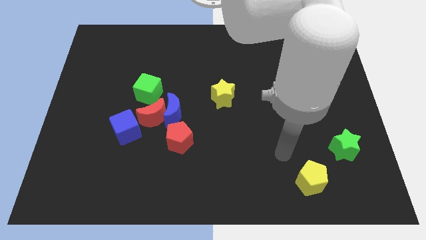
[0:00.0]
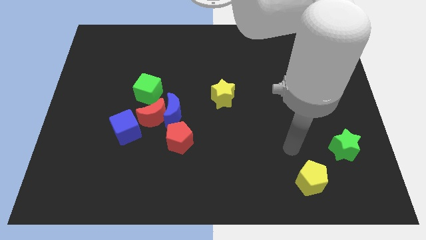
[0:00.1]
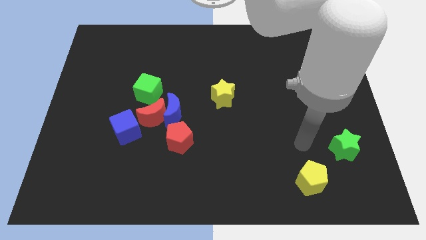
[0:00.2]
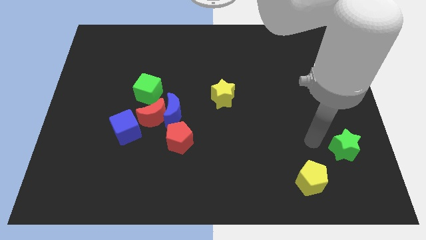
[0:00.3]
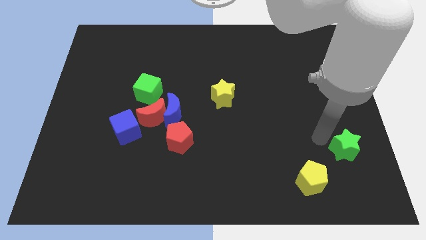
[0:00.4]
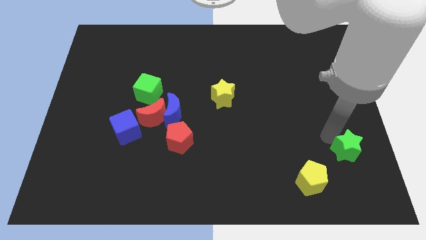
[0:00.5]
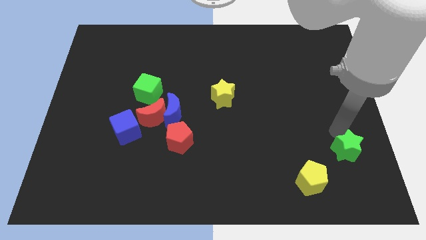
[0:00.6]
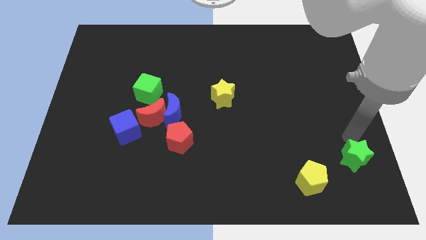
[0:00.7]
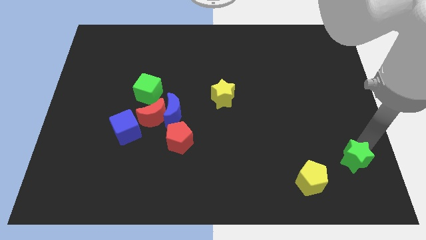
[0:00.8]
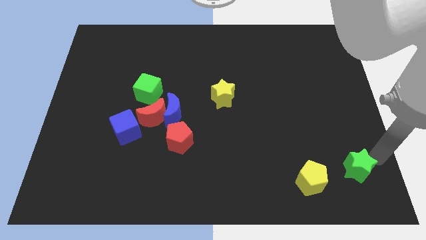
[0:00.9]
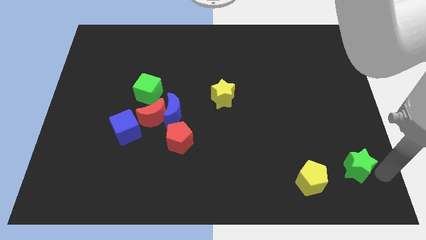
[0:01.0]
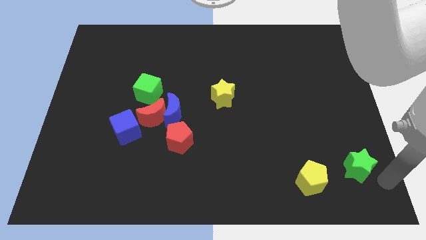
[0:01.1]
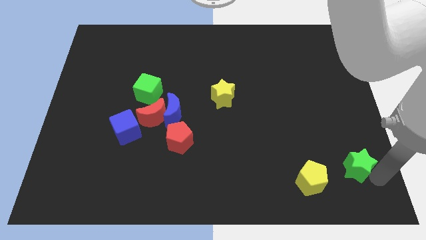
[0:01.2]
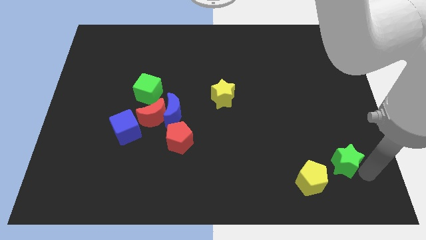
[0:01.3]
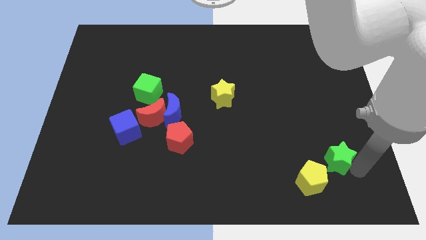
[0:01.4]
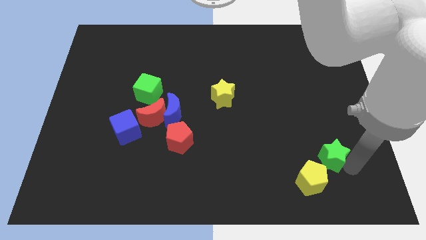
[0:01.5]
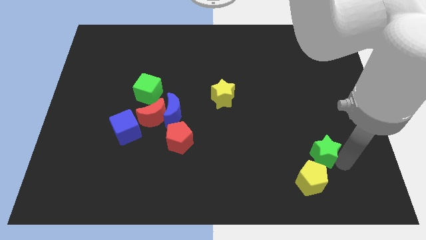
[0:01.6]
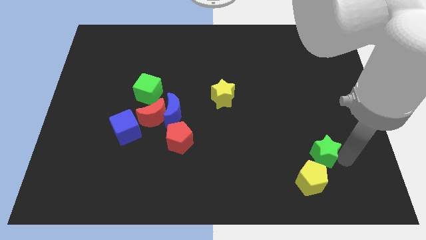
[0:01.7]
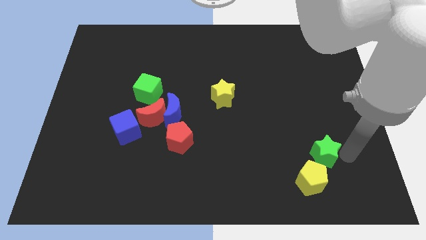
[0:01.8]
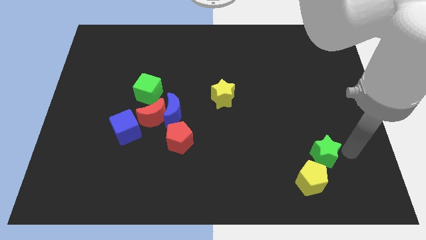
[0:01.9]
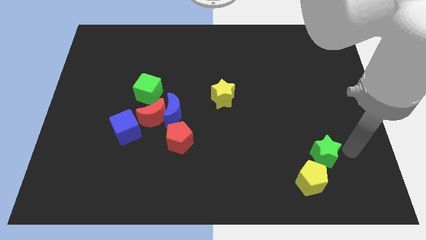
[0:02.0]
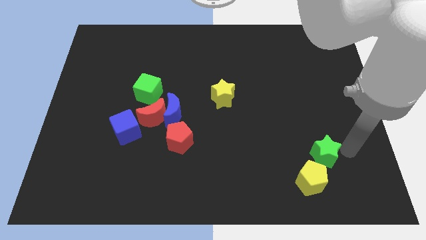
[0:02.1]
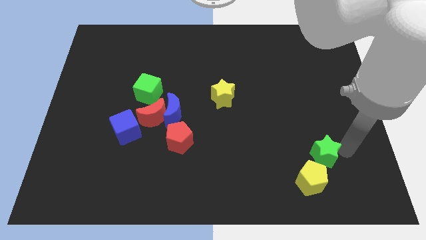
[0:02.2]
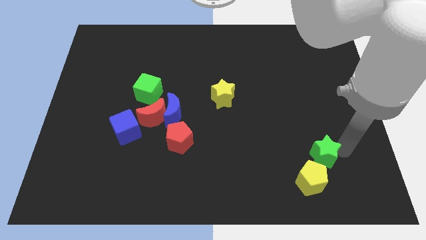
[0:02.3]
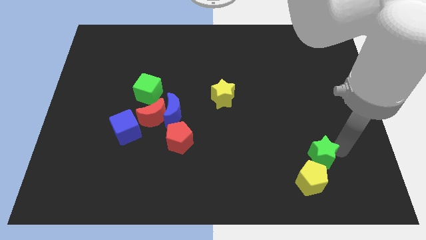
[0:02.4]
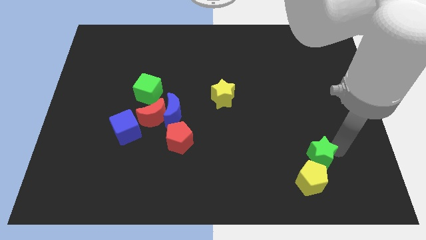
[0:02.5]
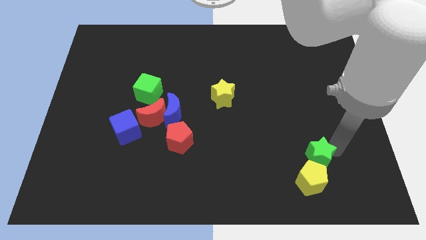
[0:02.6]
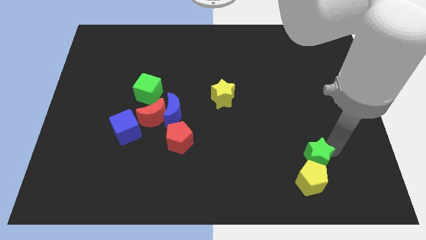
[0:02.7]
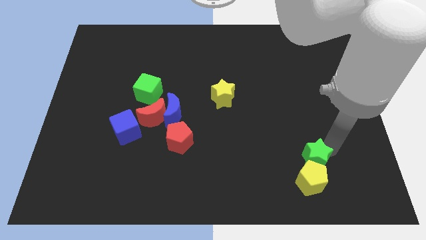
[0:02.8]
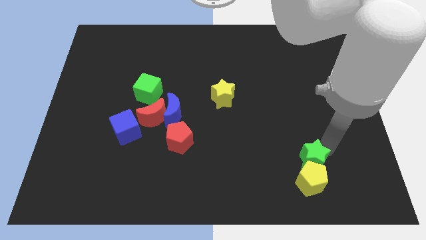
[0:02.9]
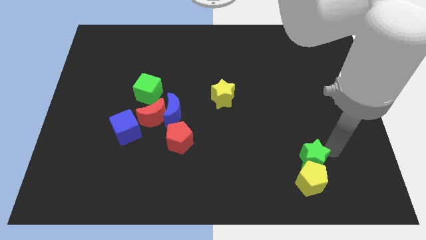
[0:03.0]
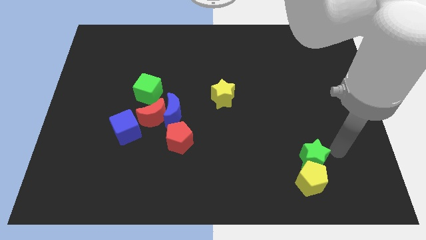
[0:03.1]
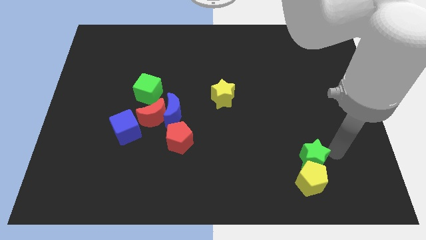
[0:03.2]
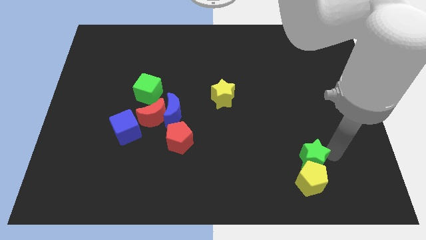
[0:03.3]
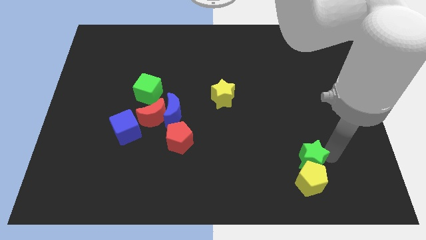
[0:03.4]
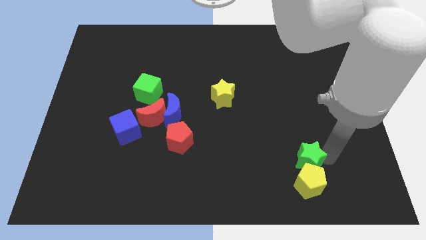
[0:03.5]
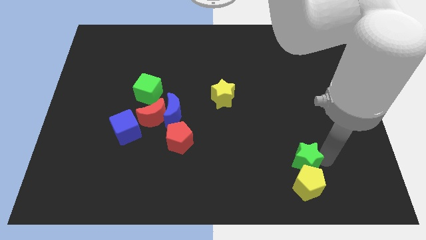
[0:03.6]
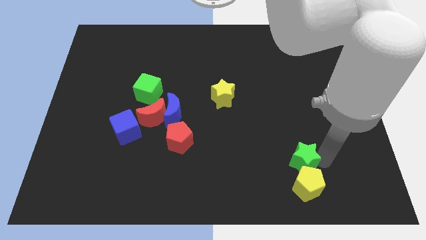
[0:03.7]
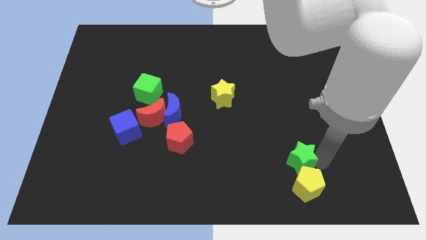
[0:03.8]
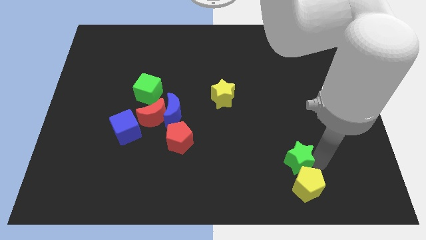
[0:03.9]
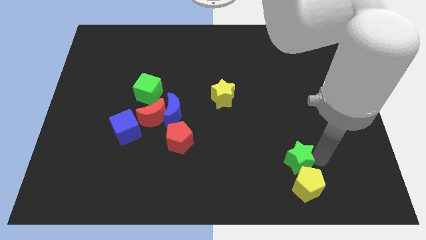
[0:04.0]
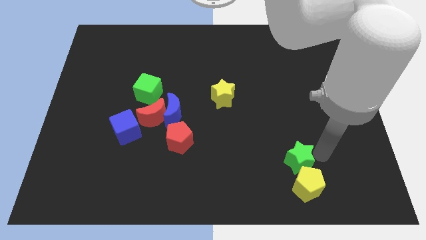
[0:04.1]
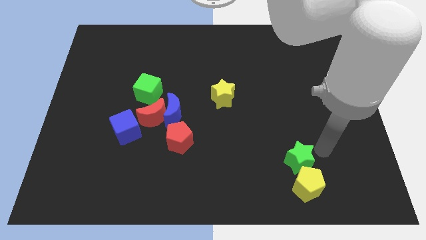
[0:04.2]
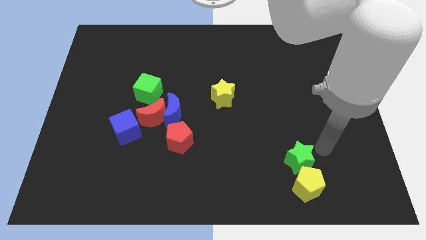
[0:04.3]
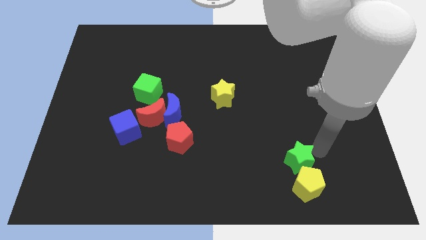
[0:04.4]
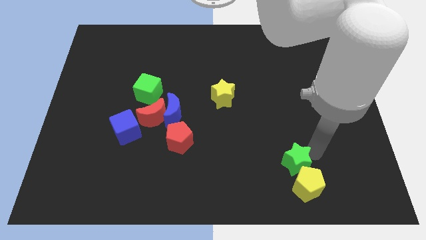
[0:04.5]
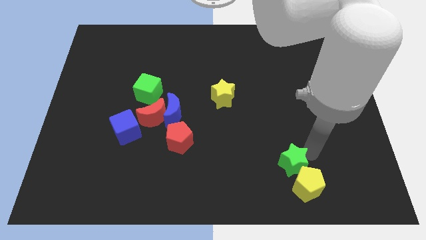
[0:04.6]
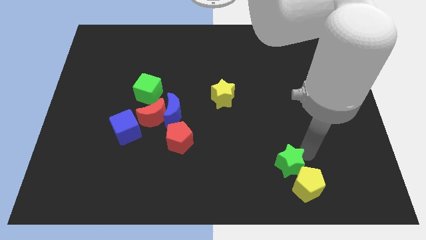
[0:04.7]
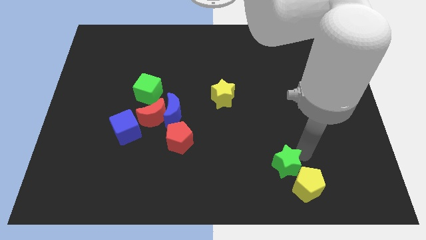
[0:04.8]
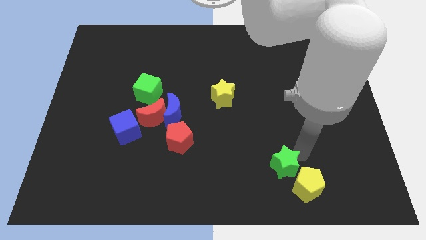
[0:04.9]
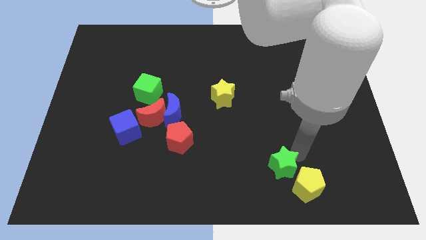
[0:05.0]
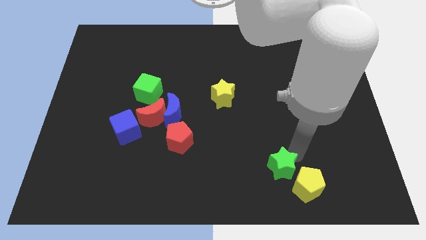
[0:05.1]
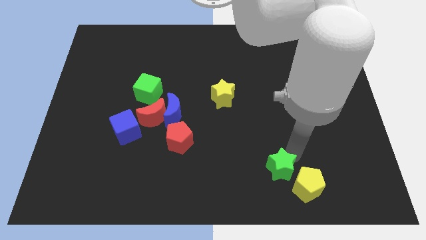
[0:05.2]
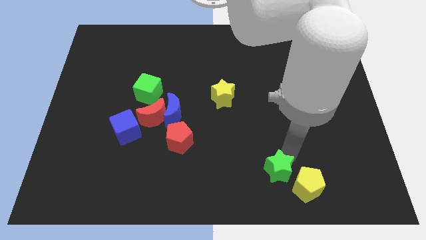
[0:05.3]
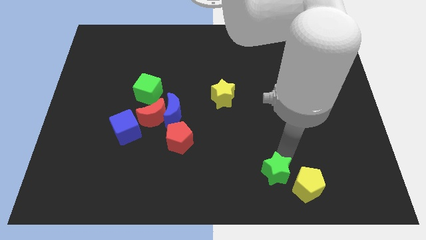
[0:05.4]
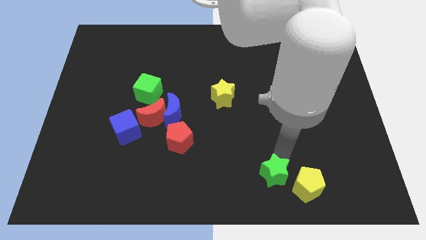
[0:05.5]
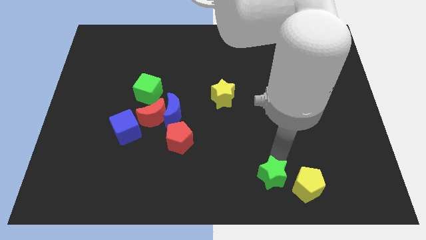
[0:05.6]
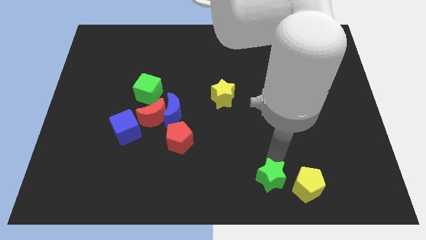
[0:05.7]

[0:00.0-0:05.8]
slide the green star to the bottom
